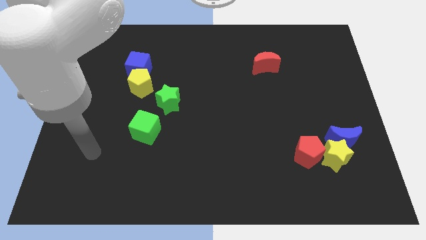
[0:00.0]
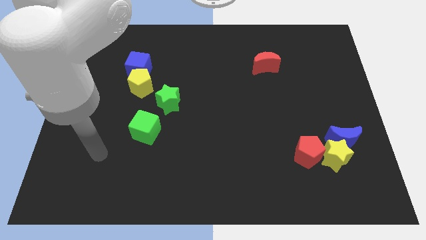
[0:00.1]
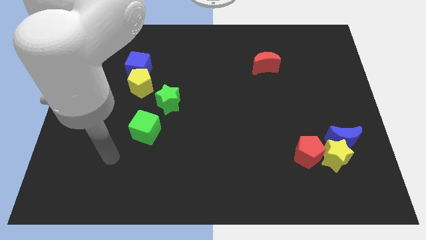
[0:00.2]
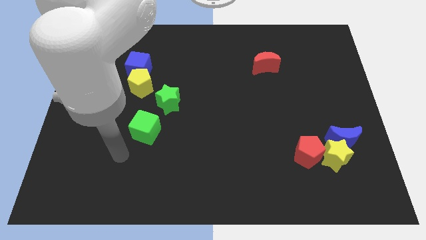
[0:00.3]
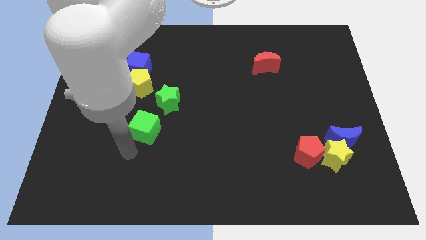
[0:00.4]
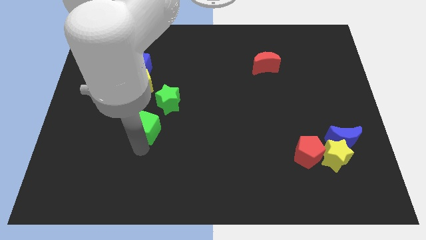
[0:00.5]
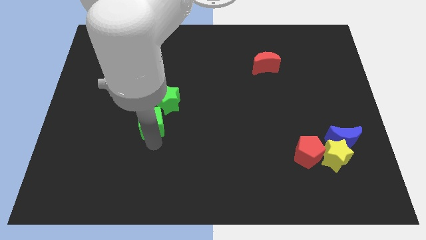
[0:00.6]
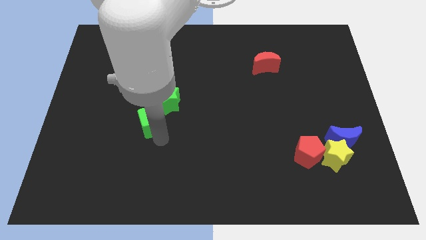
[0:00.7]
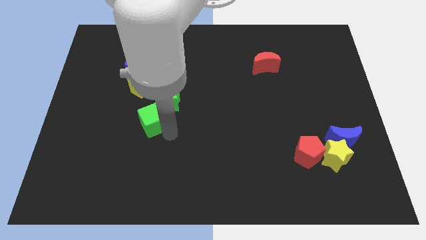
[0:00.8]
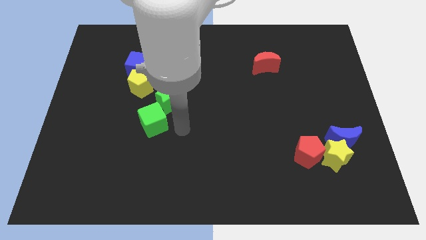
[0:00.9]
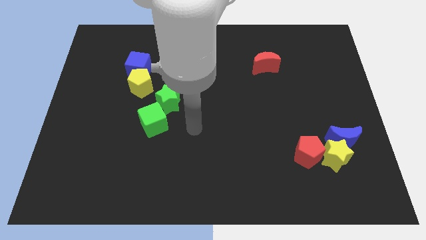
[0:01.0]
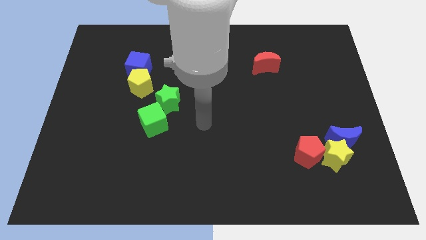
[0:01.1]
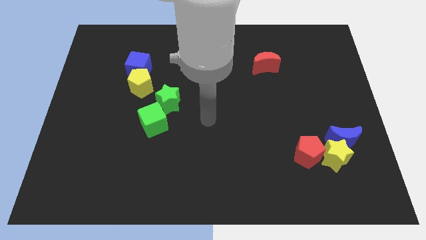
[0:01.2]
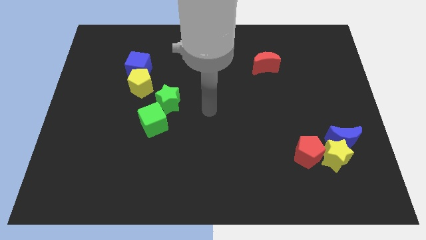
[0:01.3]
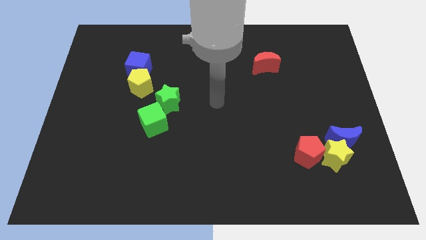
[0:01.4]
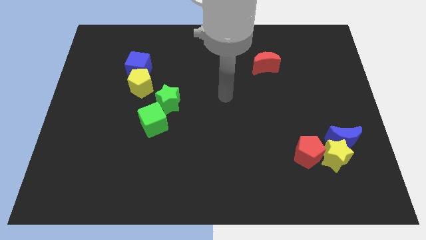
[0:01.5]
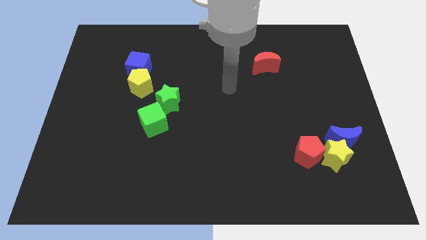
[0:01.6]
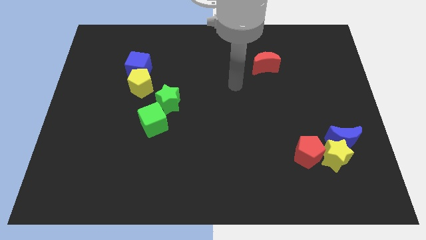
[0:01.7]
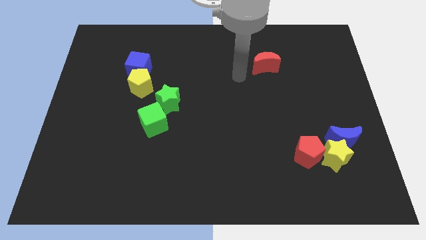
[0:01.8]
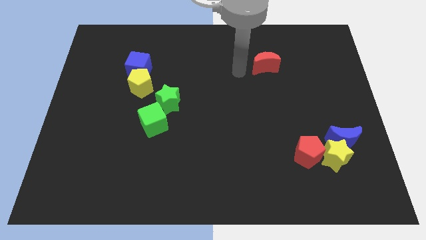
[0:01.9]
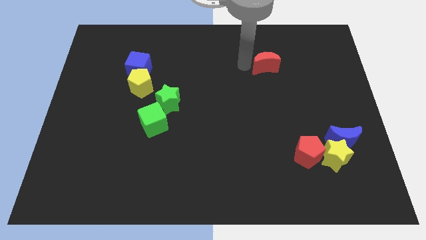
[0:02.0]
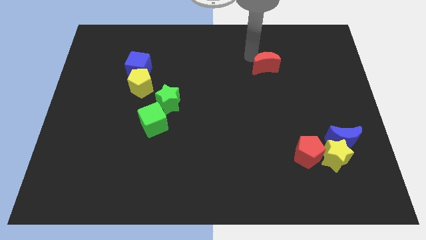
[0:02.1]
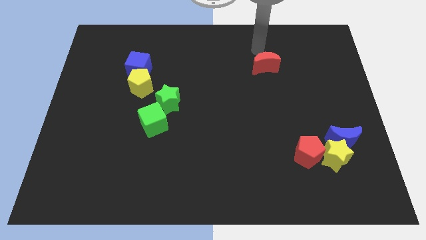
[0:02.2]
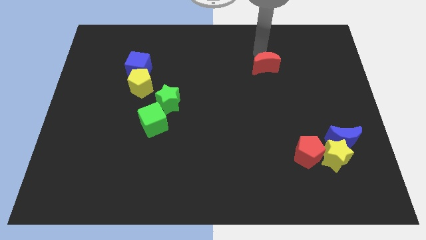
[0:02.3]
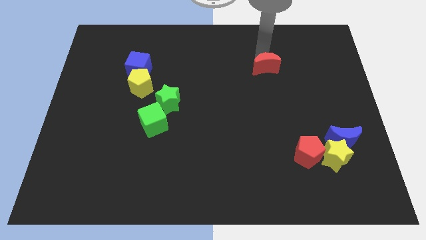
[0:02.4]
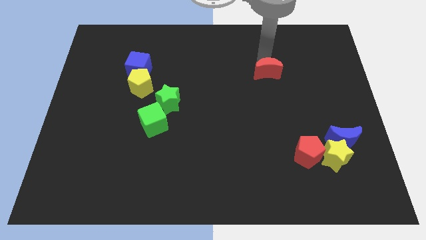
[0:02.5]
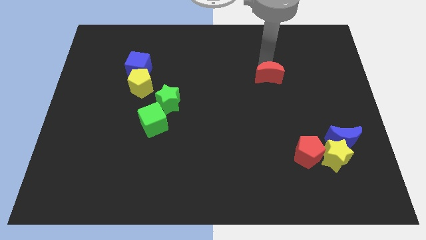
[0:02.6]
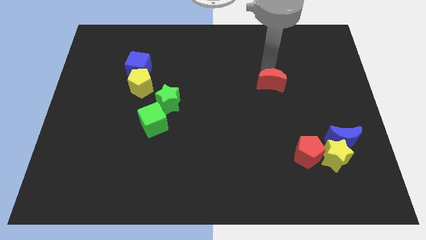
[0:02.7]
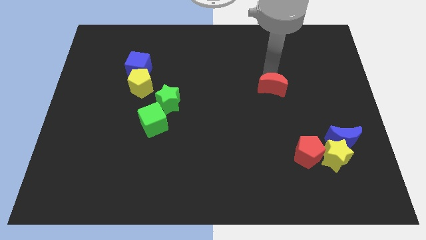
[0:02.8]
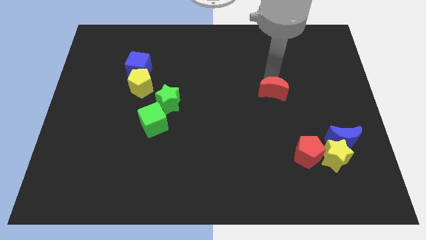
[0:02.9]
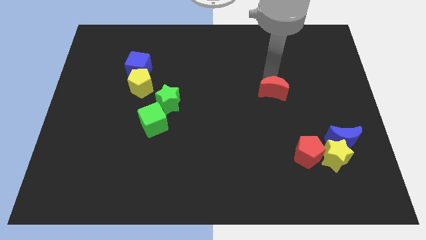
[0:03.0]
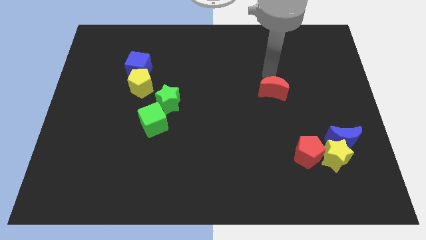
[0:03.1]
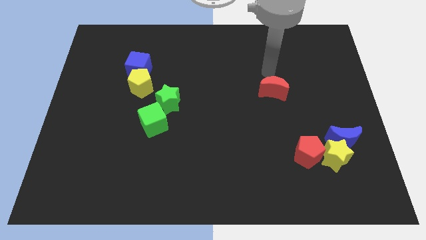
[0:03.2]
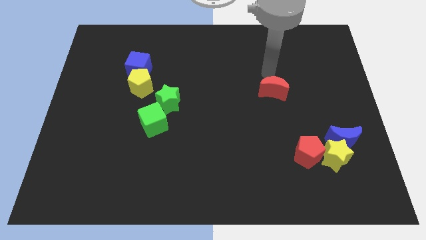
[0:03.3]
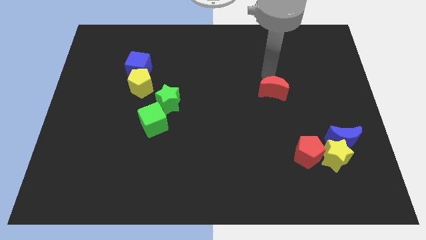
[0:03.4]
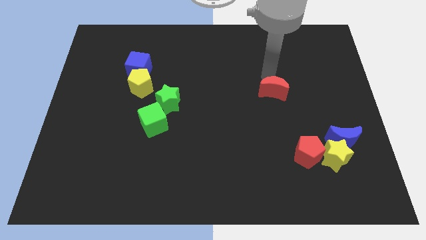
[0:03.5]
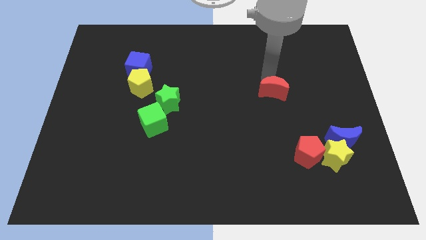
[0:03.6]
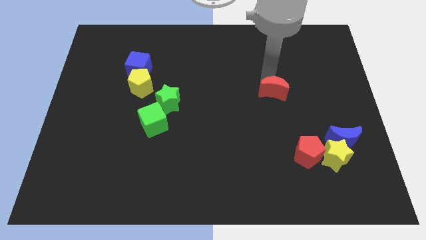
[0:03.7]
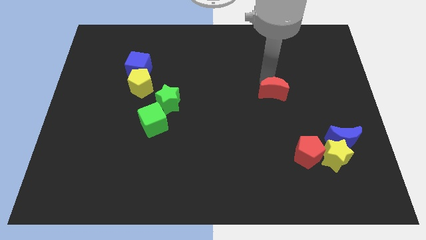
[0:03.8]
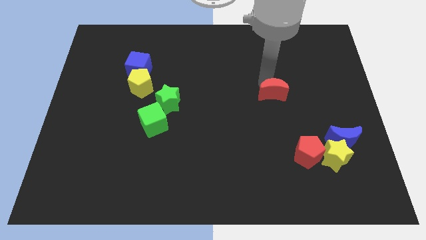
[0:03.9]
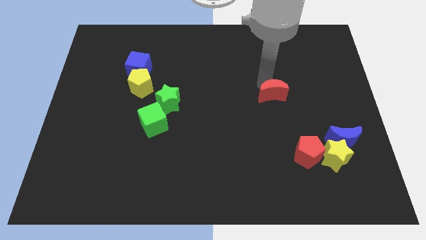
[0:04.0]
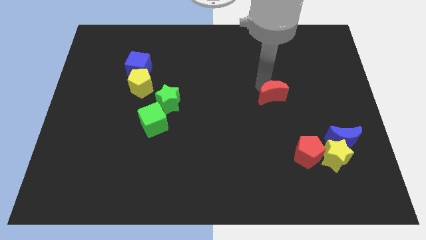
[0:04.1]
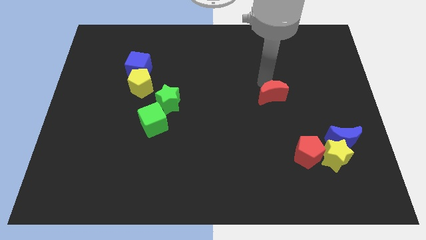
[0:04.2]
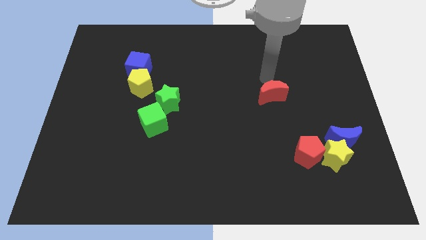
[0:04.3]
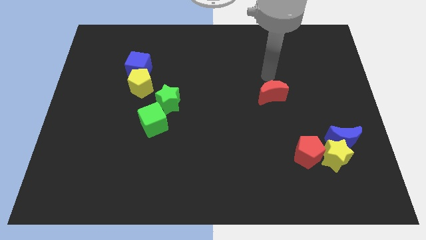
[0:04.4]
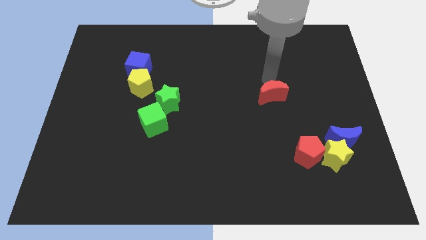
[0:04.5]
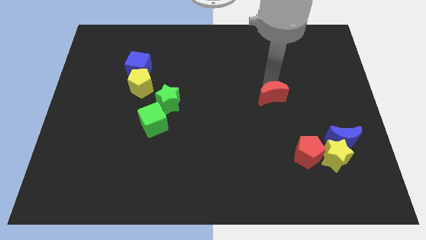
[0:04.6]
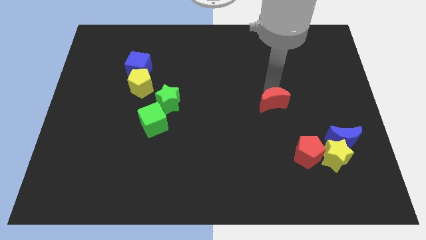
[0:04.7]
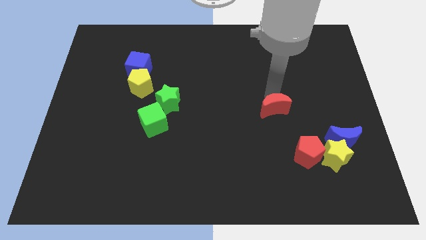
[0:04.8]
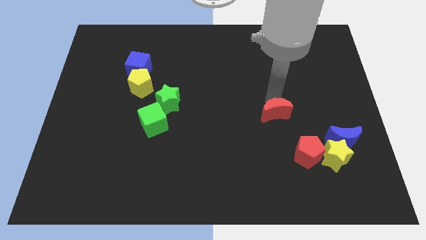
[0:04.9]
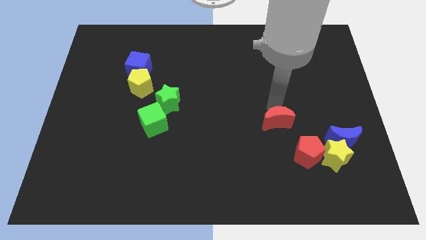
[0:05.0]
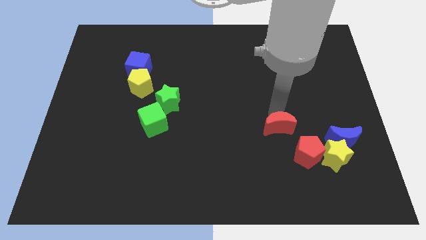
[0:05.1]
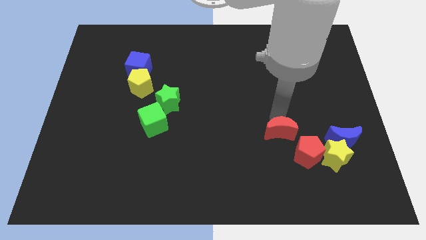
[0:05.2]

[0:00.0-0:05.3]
push the red moon downwards

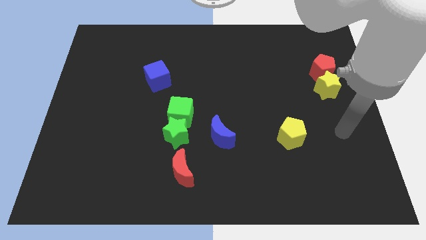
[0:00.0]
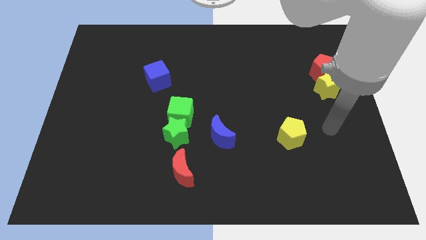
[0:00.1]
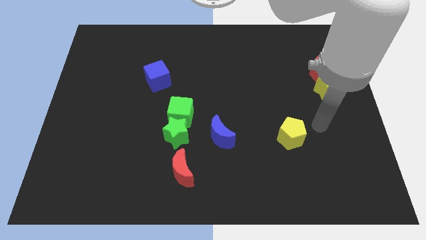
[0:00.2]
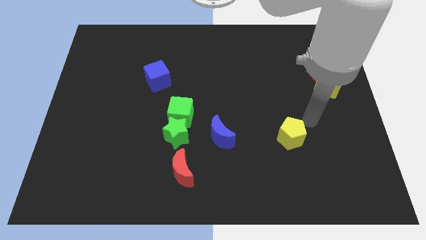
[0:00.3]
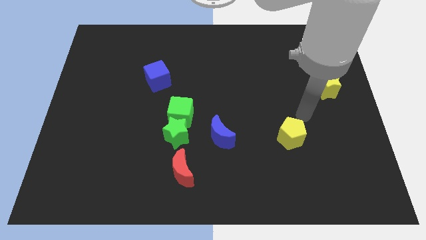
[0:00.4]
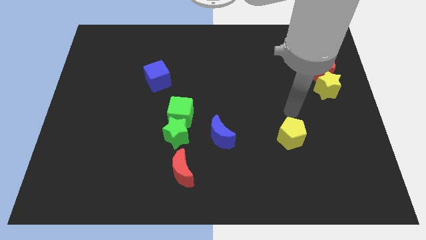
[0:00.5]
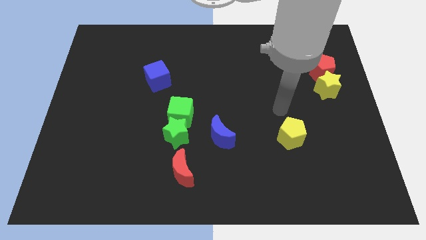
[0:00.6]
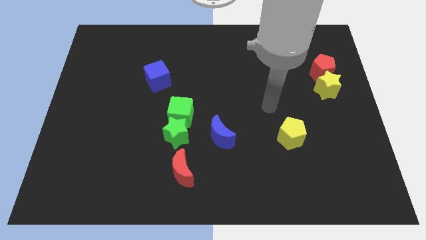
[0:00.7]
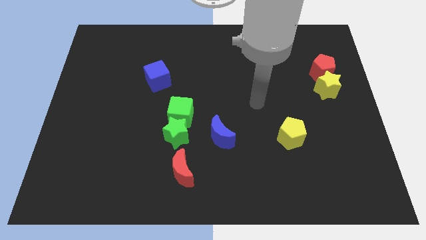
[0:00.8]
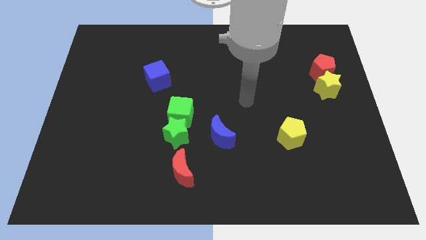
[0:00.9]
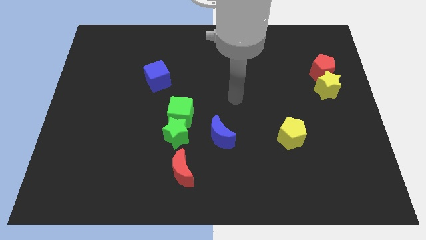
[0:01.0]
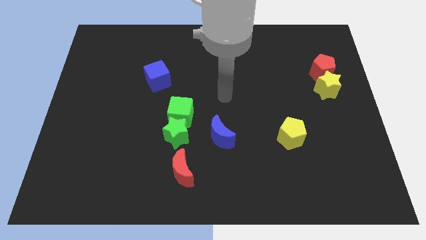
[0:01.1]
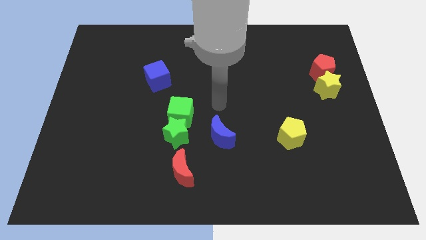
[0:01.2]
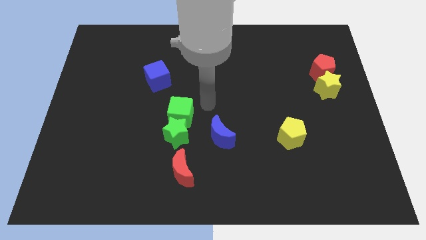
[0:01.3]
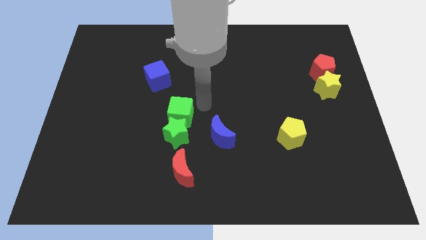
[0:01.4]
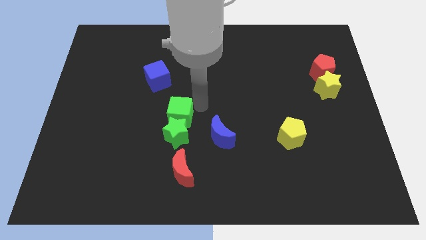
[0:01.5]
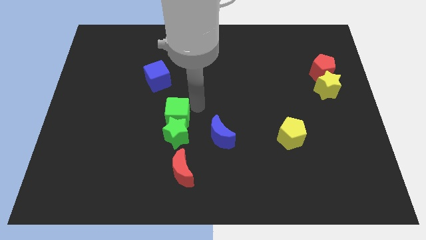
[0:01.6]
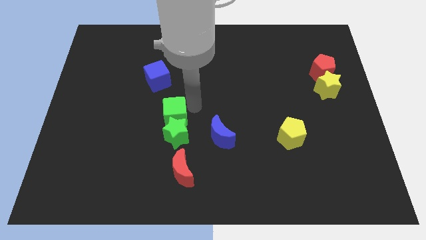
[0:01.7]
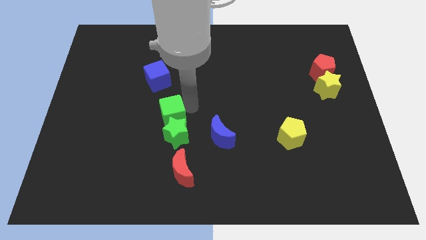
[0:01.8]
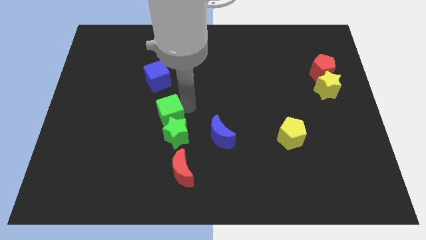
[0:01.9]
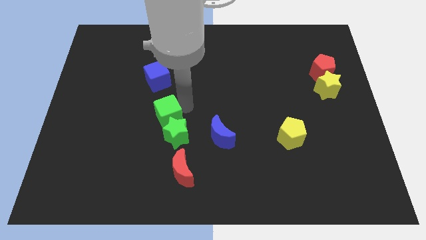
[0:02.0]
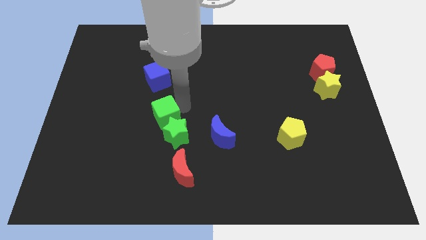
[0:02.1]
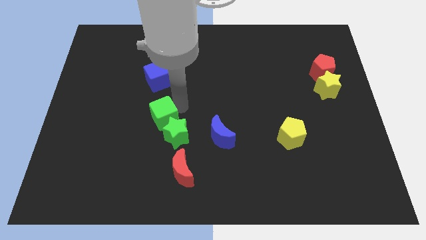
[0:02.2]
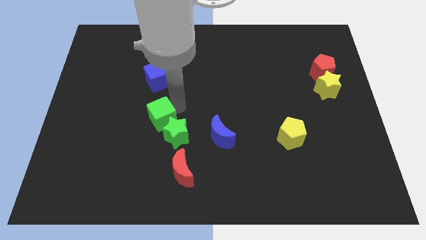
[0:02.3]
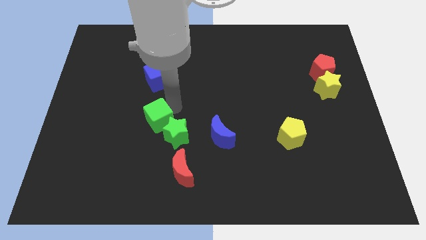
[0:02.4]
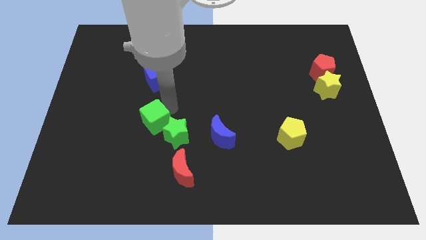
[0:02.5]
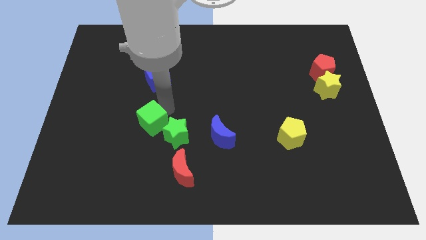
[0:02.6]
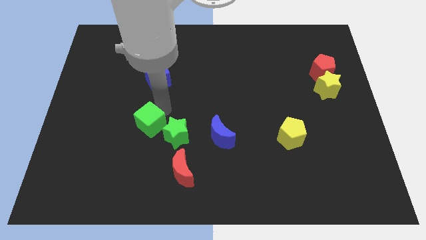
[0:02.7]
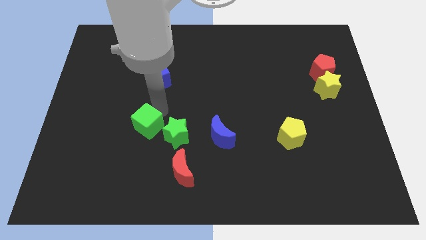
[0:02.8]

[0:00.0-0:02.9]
slightly slide the green cube down and left diagonally
